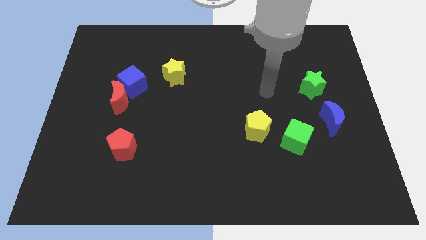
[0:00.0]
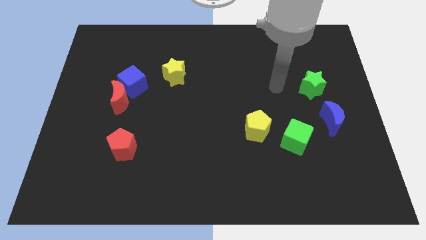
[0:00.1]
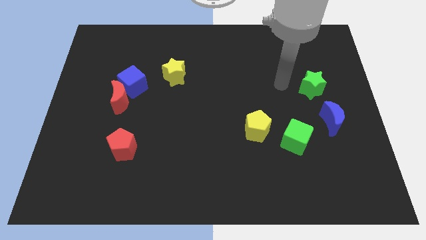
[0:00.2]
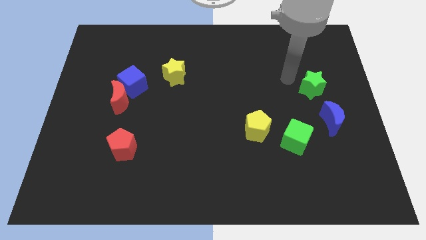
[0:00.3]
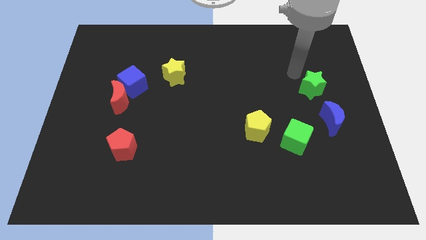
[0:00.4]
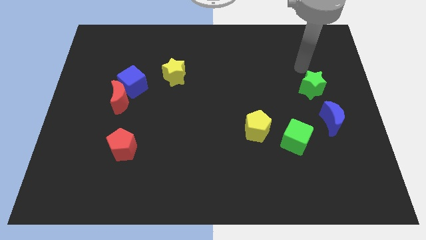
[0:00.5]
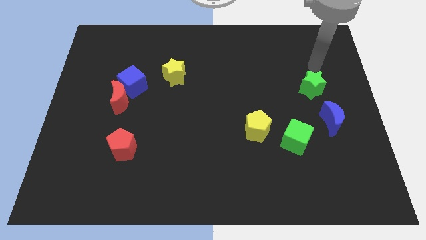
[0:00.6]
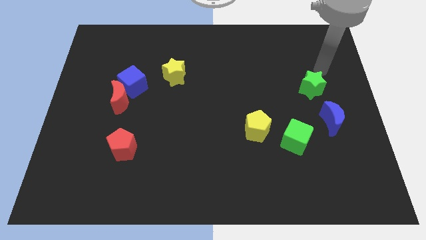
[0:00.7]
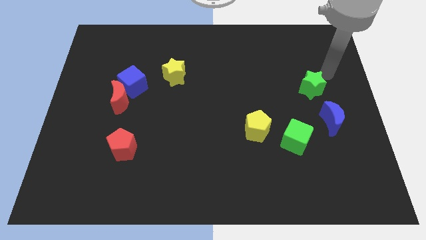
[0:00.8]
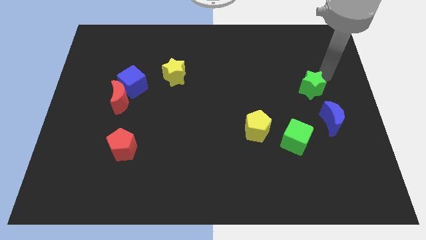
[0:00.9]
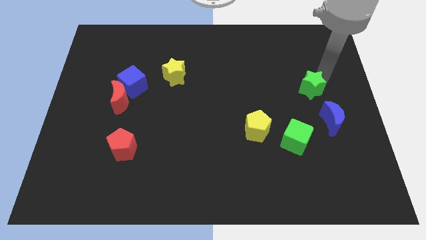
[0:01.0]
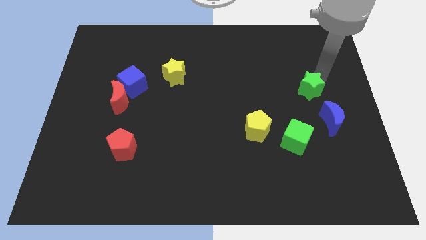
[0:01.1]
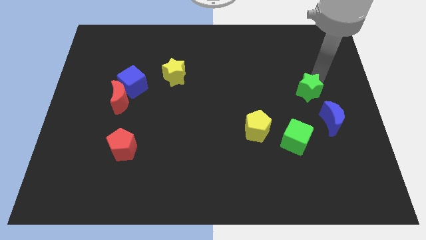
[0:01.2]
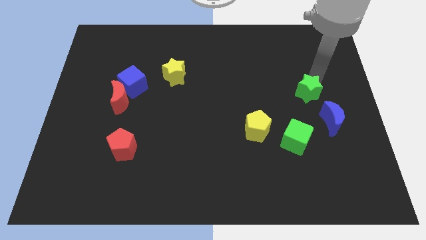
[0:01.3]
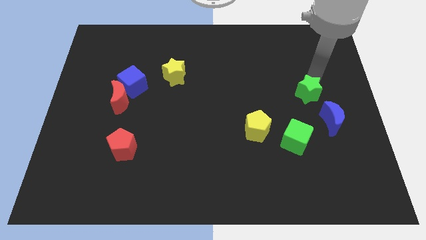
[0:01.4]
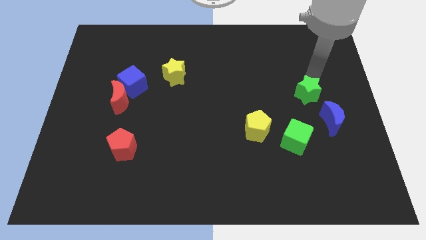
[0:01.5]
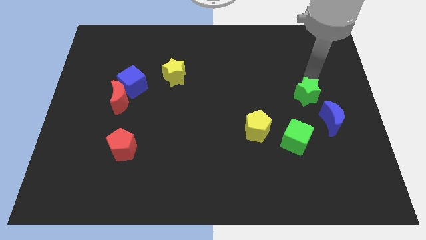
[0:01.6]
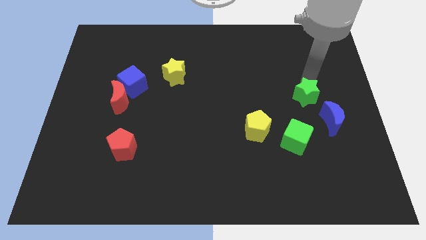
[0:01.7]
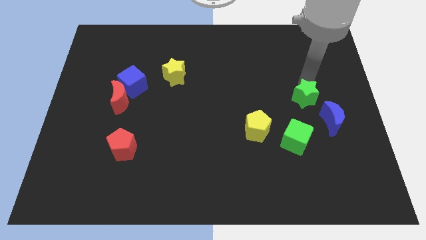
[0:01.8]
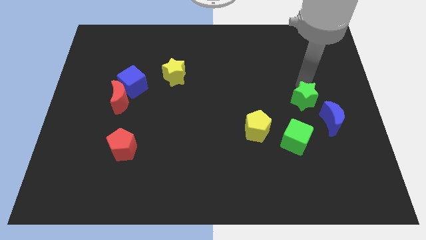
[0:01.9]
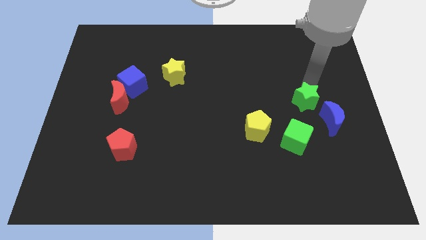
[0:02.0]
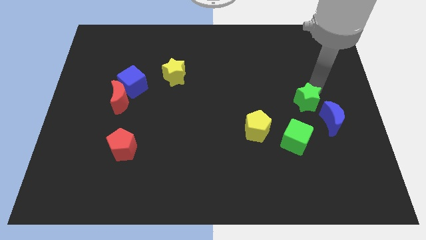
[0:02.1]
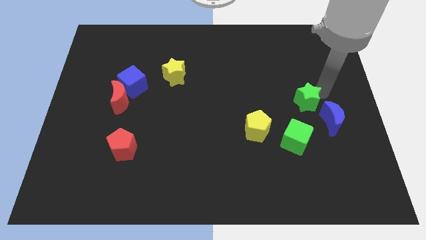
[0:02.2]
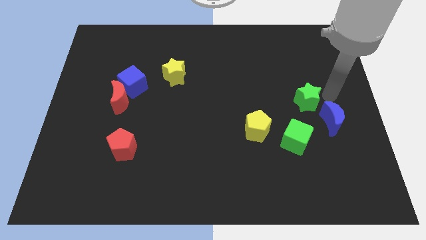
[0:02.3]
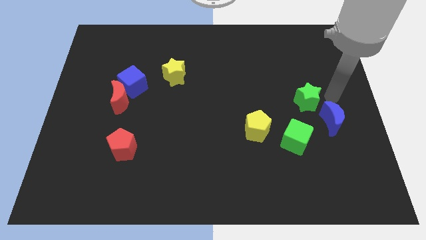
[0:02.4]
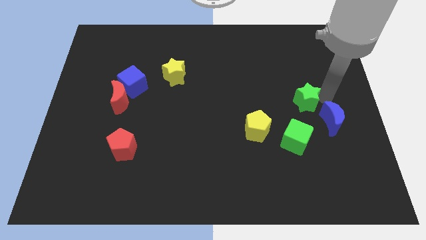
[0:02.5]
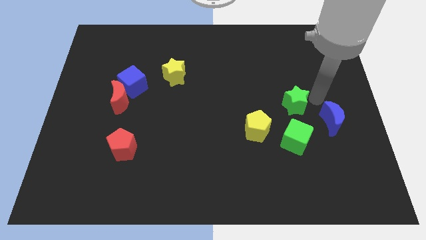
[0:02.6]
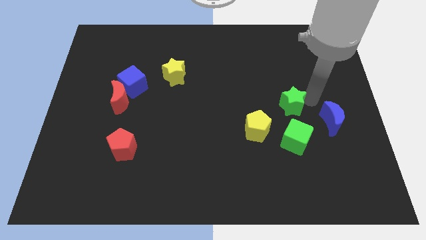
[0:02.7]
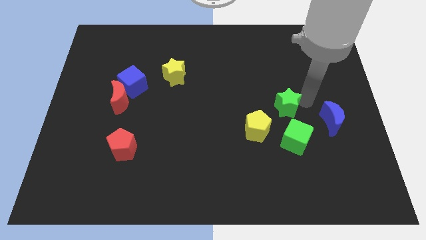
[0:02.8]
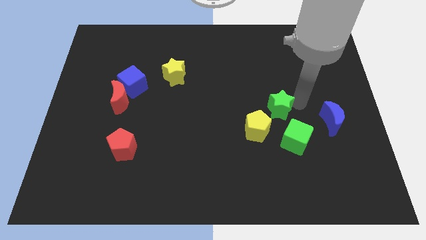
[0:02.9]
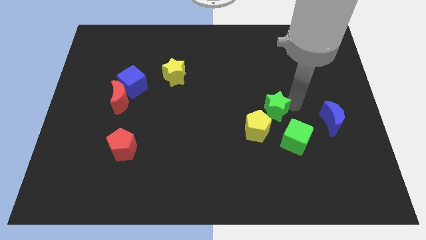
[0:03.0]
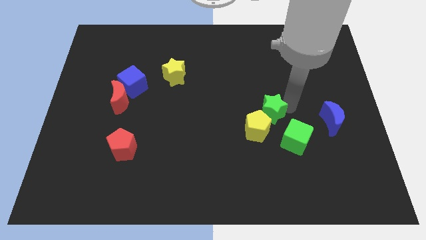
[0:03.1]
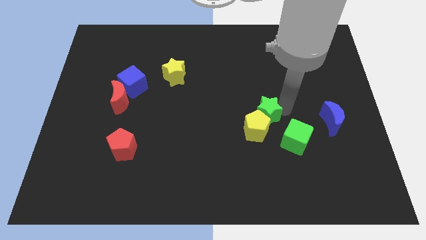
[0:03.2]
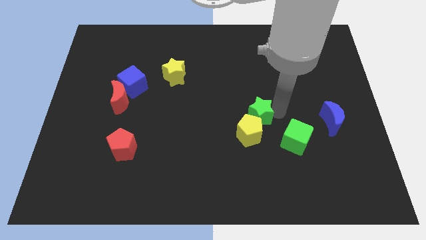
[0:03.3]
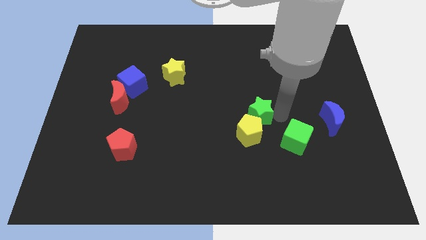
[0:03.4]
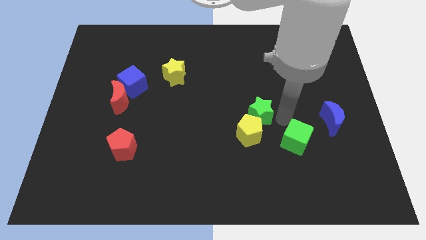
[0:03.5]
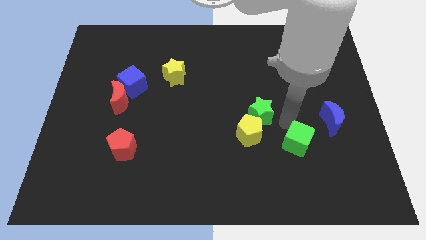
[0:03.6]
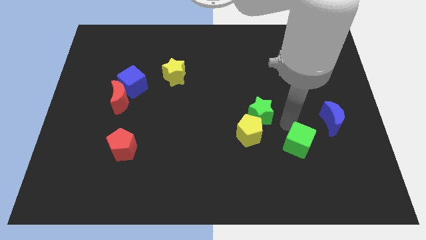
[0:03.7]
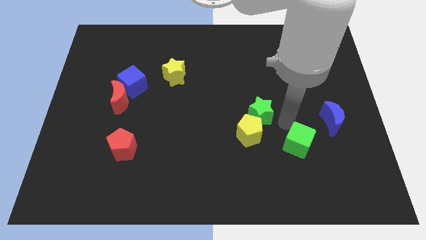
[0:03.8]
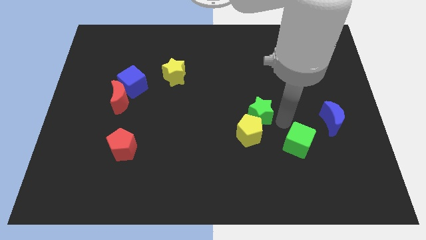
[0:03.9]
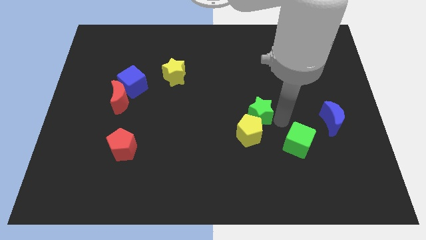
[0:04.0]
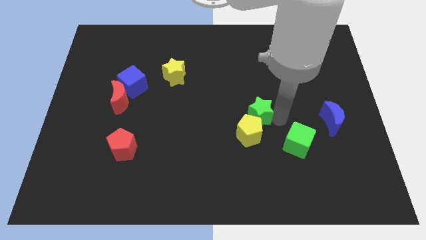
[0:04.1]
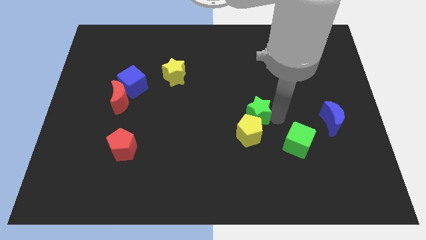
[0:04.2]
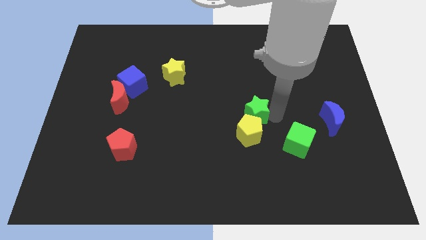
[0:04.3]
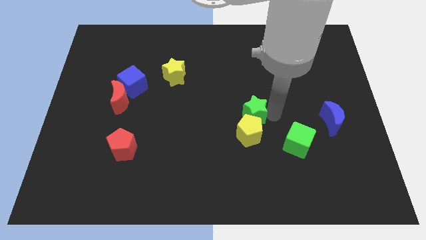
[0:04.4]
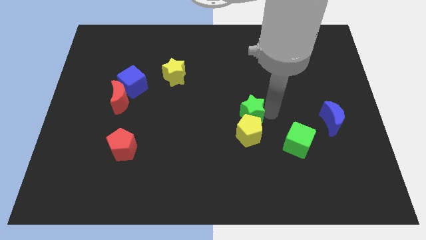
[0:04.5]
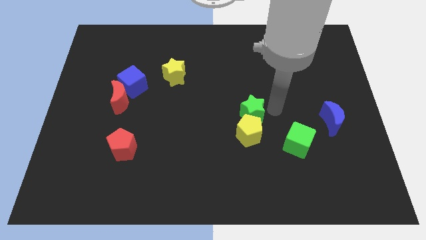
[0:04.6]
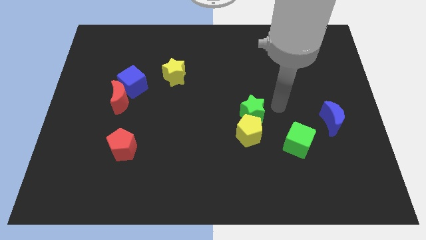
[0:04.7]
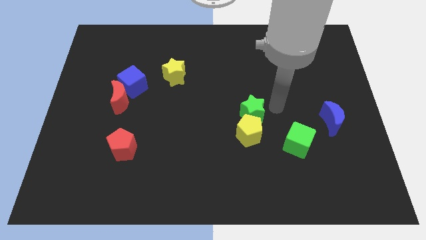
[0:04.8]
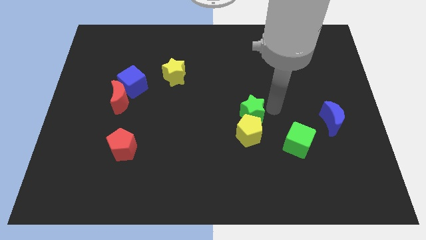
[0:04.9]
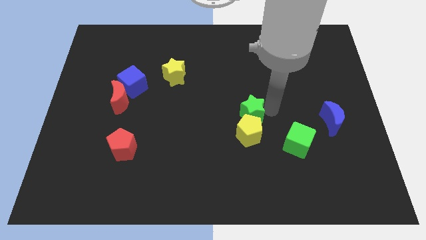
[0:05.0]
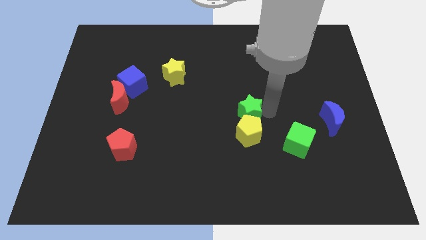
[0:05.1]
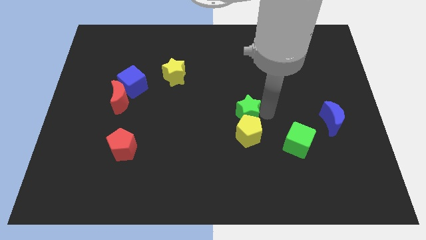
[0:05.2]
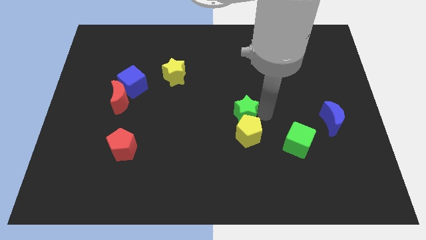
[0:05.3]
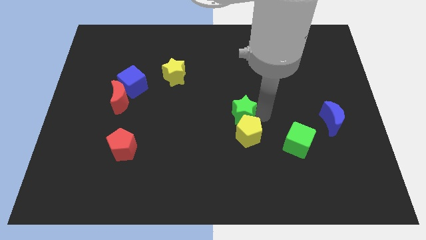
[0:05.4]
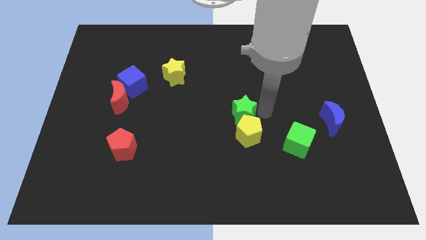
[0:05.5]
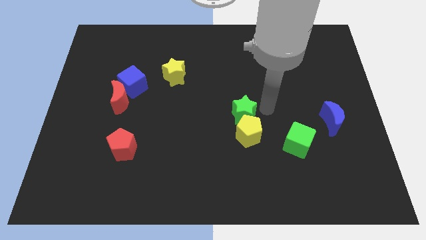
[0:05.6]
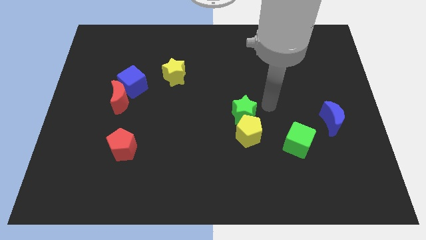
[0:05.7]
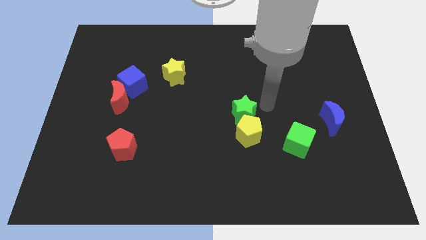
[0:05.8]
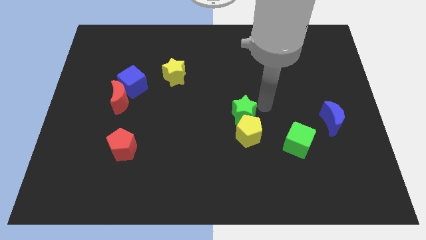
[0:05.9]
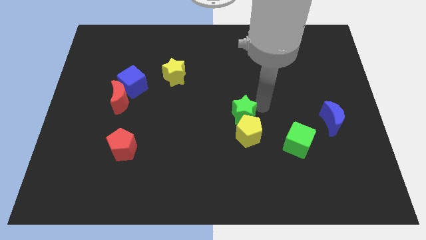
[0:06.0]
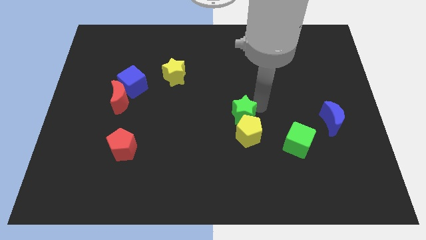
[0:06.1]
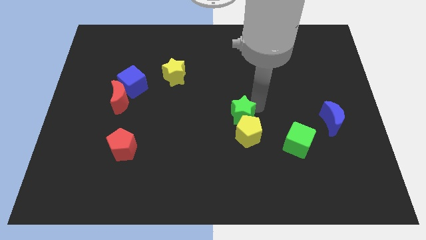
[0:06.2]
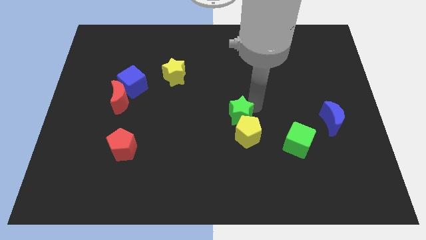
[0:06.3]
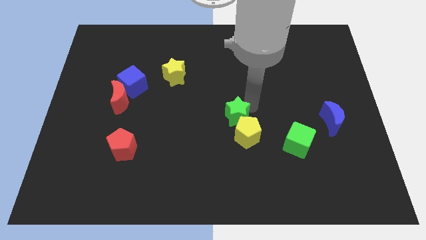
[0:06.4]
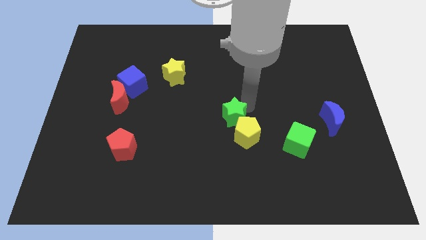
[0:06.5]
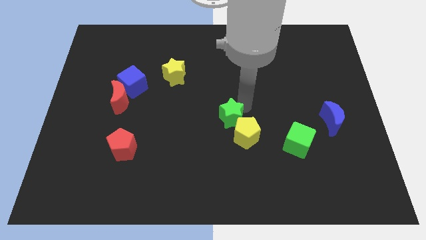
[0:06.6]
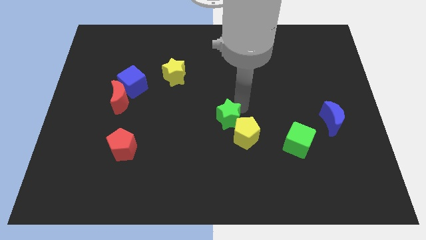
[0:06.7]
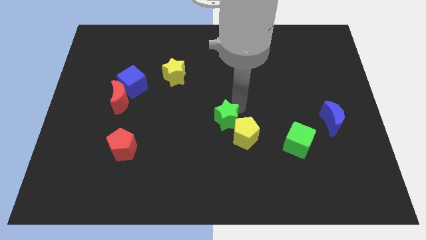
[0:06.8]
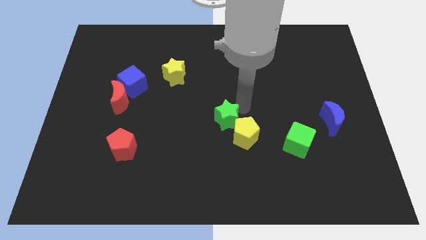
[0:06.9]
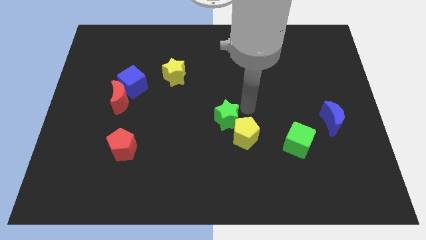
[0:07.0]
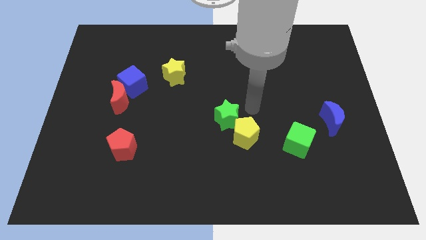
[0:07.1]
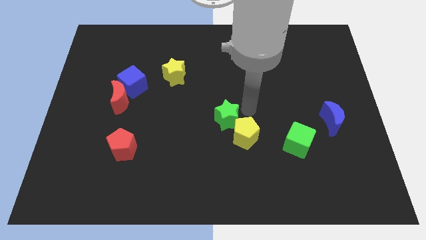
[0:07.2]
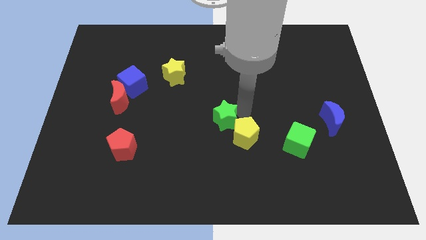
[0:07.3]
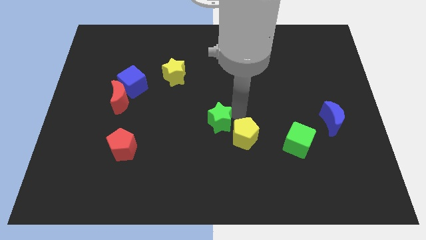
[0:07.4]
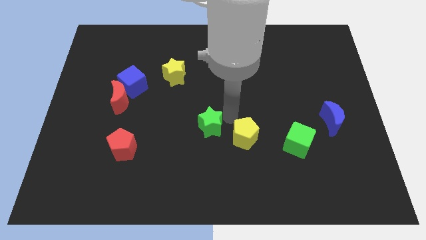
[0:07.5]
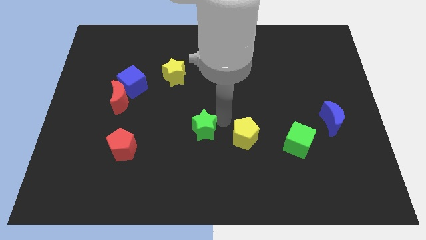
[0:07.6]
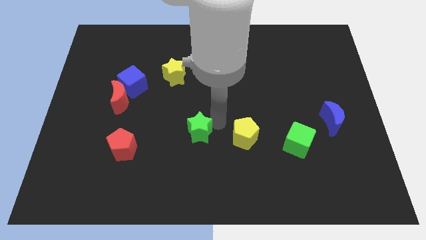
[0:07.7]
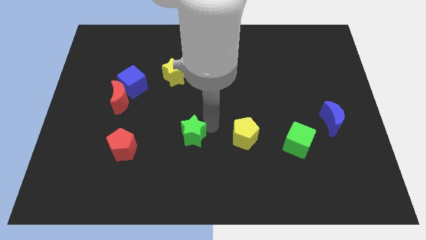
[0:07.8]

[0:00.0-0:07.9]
put the green star right of the red pentagon
